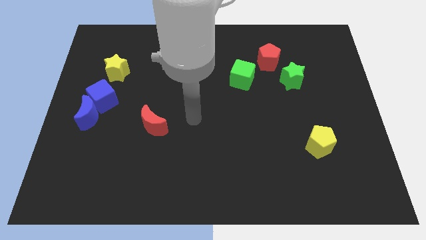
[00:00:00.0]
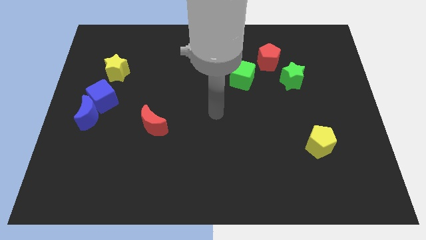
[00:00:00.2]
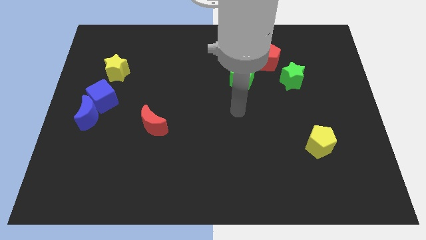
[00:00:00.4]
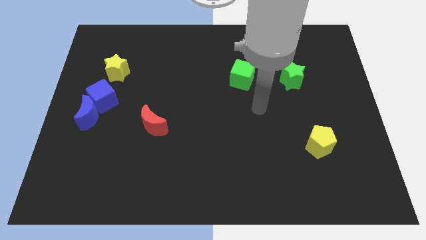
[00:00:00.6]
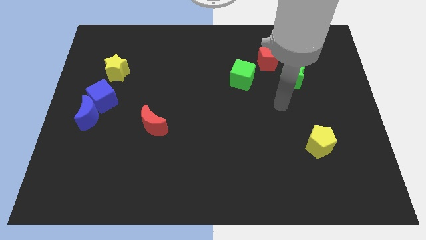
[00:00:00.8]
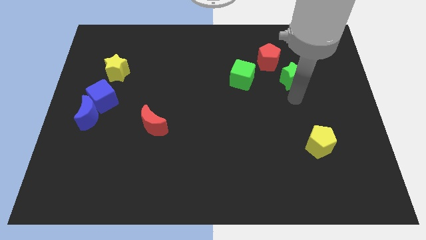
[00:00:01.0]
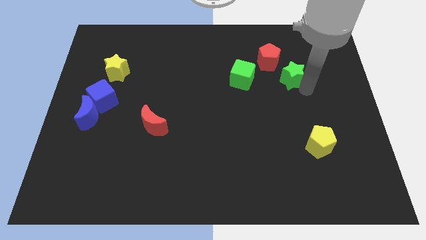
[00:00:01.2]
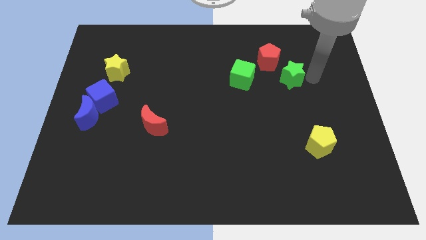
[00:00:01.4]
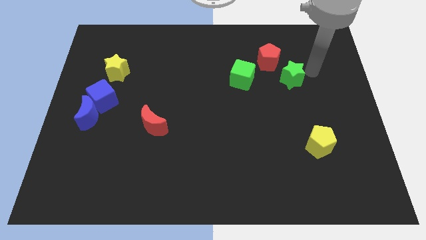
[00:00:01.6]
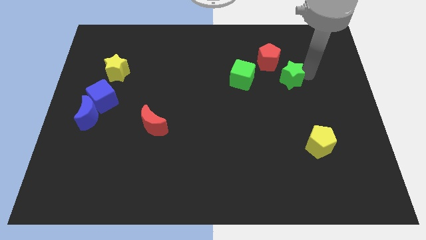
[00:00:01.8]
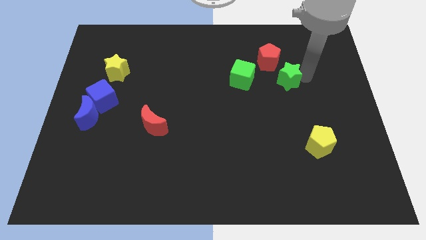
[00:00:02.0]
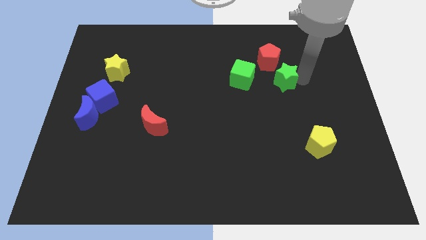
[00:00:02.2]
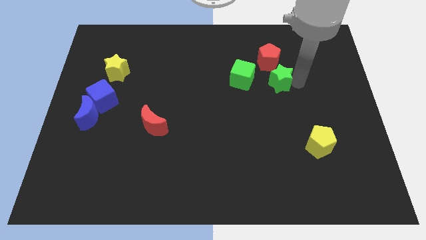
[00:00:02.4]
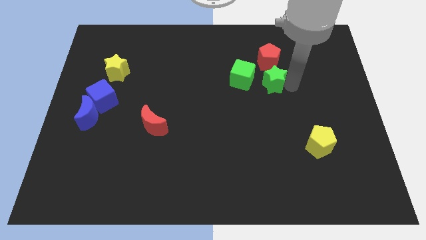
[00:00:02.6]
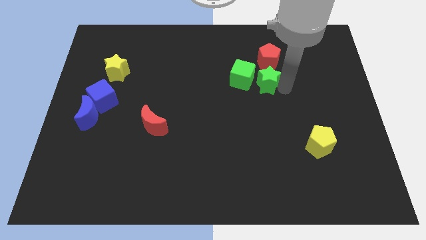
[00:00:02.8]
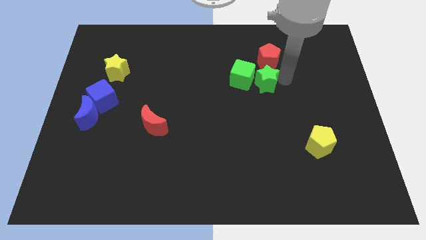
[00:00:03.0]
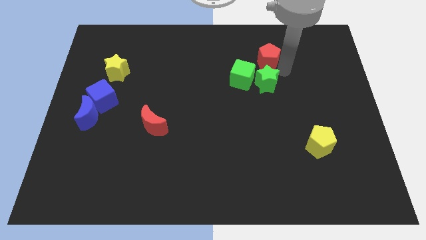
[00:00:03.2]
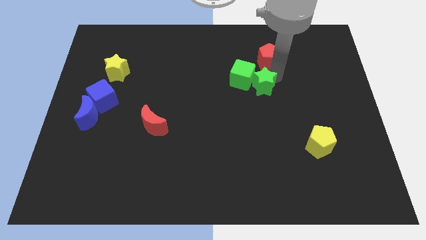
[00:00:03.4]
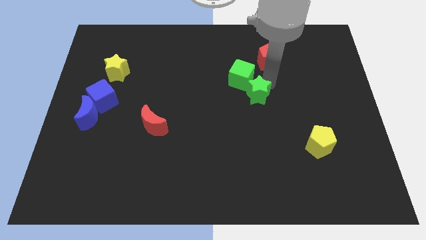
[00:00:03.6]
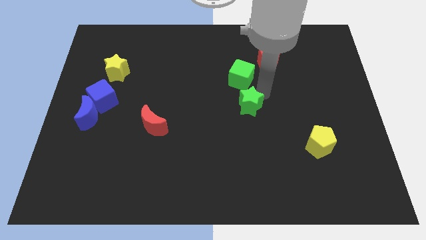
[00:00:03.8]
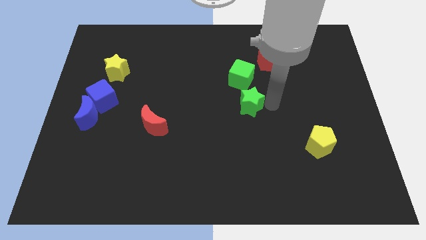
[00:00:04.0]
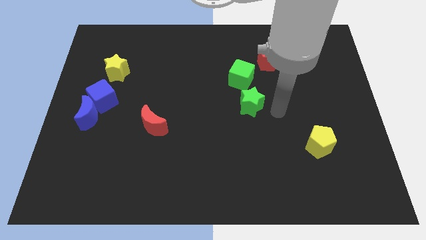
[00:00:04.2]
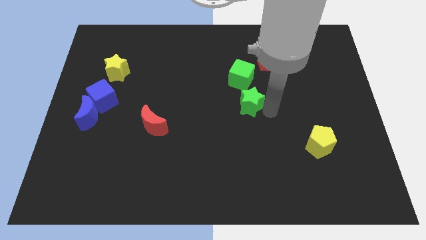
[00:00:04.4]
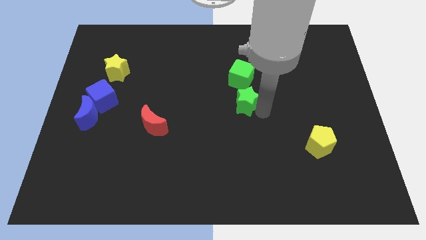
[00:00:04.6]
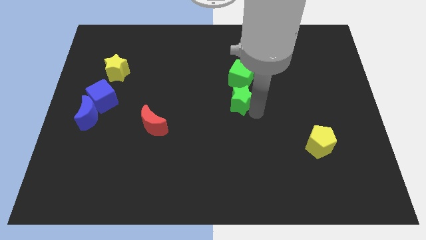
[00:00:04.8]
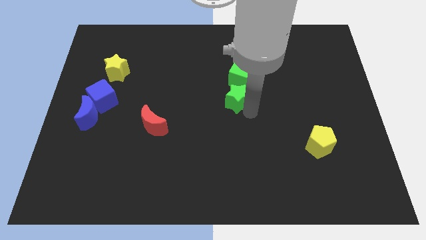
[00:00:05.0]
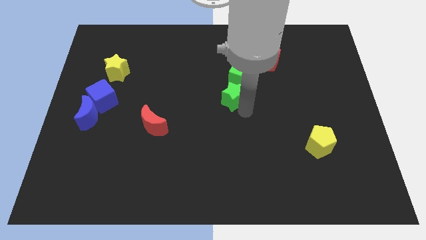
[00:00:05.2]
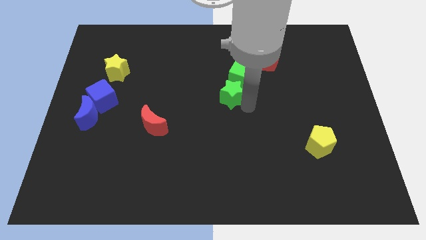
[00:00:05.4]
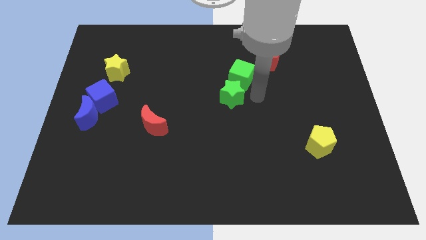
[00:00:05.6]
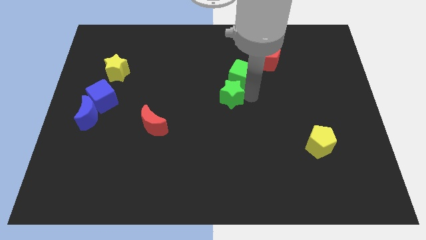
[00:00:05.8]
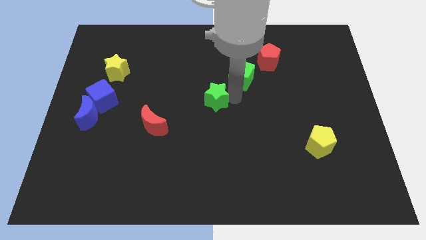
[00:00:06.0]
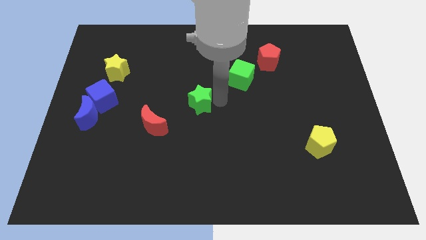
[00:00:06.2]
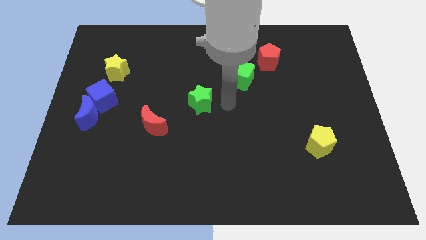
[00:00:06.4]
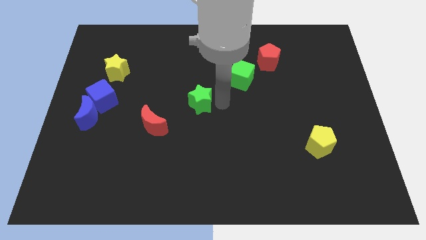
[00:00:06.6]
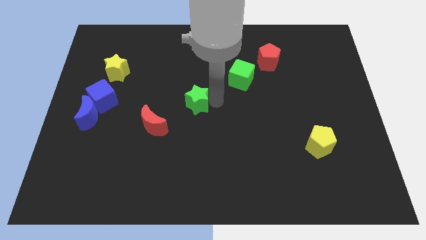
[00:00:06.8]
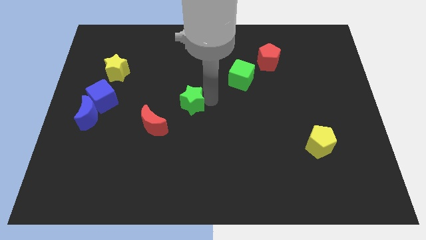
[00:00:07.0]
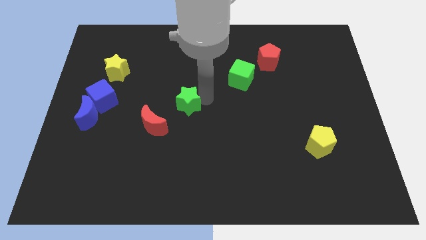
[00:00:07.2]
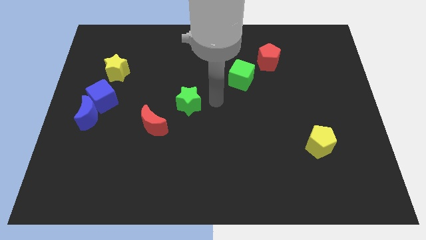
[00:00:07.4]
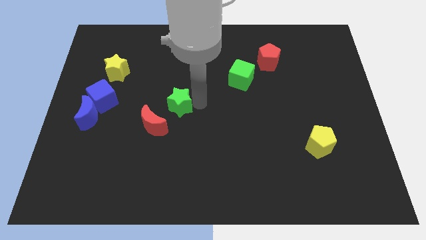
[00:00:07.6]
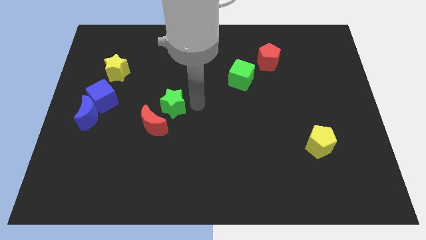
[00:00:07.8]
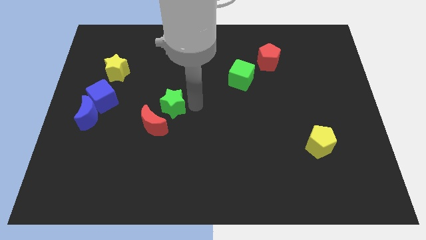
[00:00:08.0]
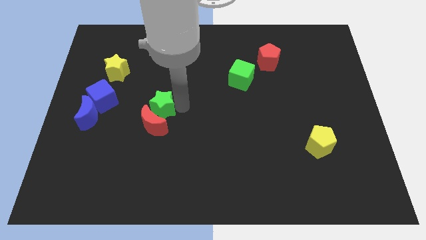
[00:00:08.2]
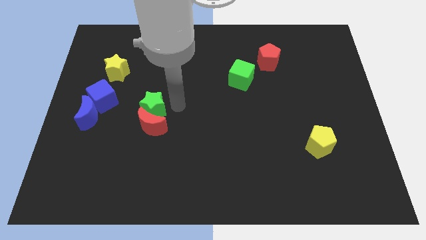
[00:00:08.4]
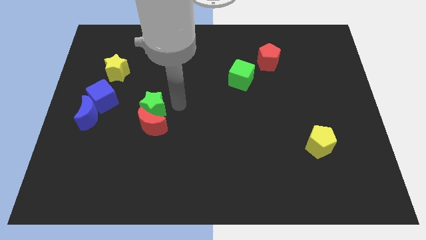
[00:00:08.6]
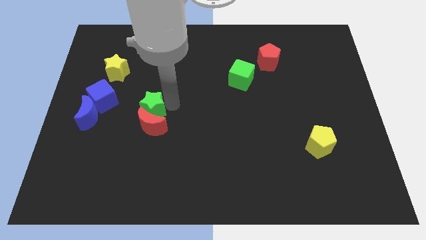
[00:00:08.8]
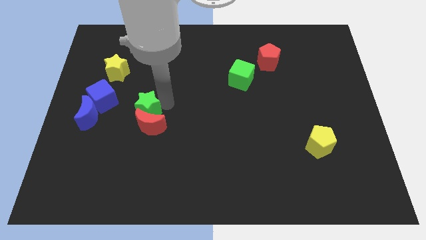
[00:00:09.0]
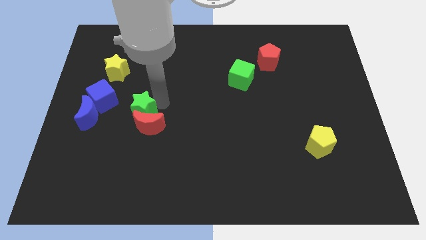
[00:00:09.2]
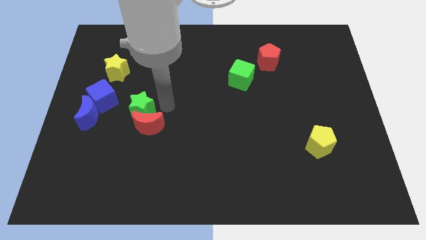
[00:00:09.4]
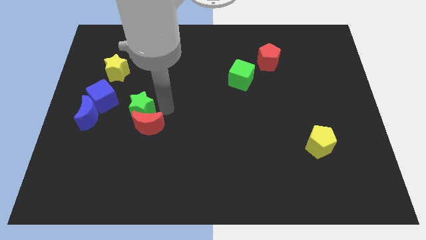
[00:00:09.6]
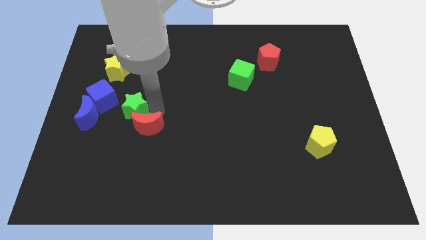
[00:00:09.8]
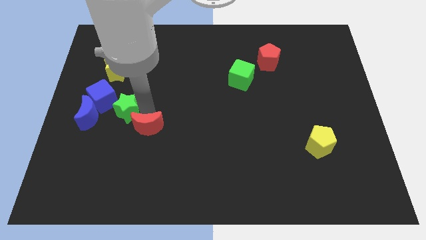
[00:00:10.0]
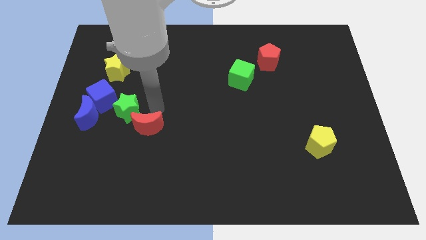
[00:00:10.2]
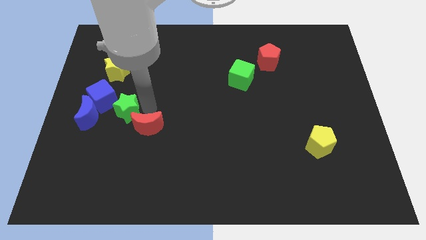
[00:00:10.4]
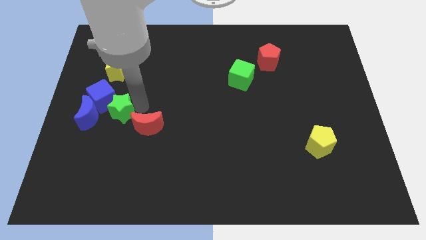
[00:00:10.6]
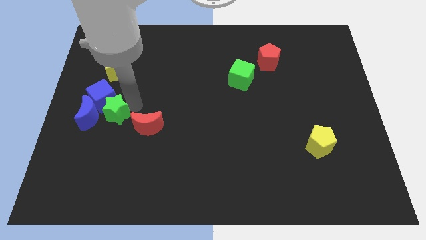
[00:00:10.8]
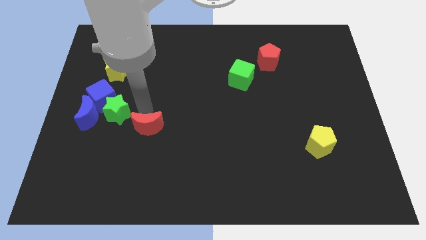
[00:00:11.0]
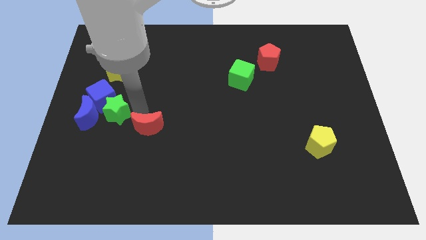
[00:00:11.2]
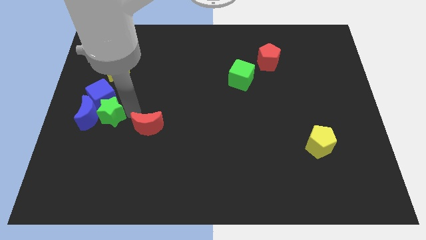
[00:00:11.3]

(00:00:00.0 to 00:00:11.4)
push the green star to the blue moon

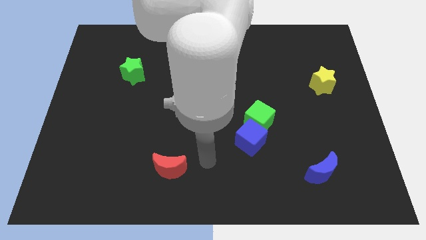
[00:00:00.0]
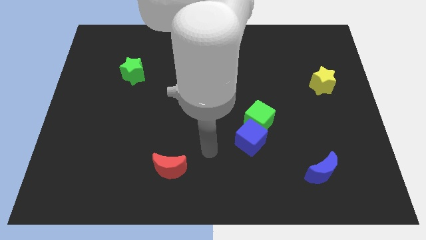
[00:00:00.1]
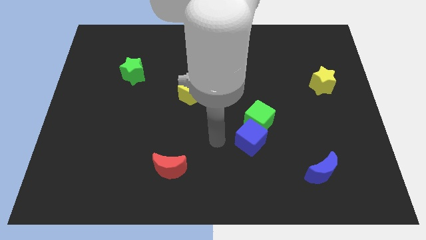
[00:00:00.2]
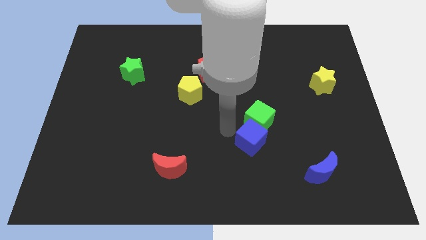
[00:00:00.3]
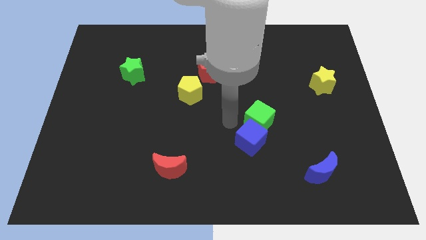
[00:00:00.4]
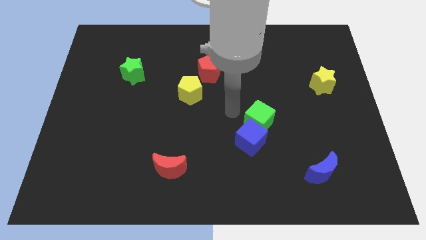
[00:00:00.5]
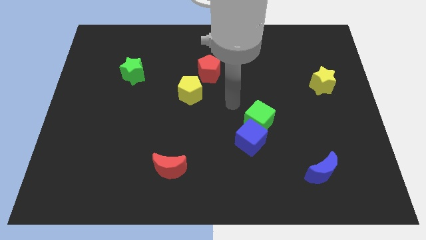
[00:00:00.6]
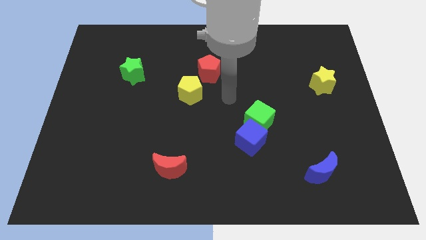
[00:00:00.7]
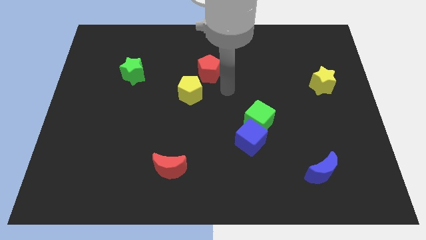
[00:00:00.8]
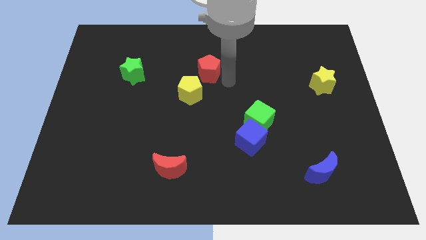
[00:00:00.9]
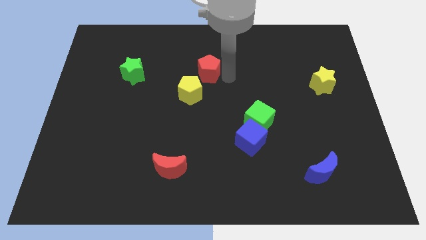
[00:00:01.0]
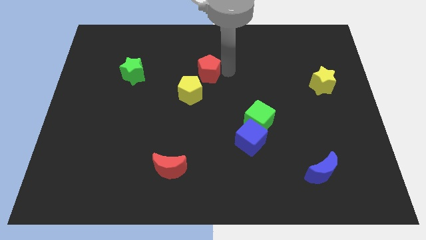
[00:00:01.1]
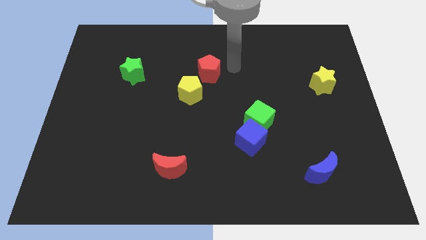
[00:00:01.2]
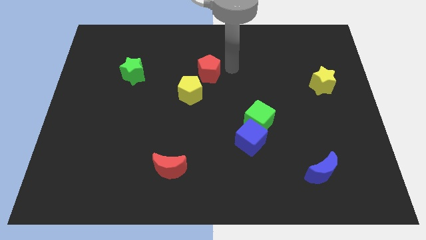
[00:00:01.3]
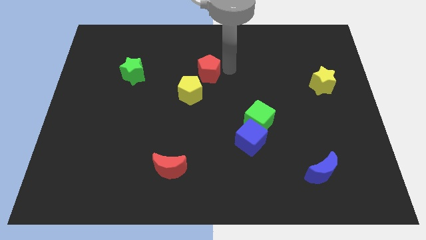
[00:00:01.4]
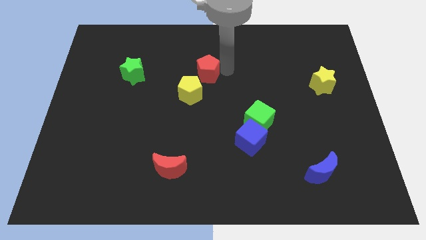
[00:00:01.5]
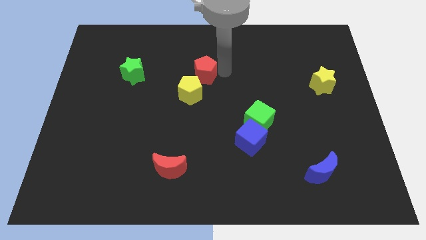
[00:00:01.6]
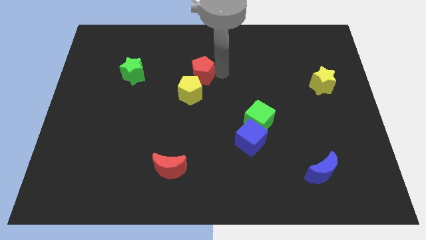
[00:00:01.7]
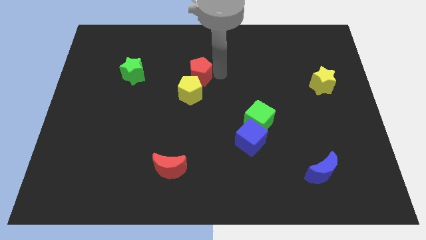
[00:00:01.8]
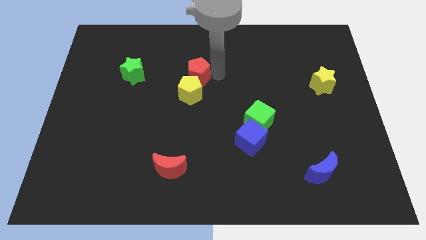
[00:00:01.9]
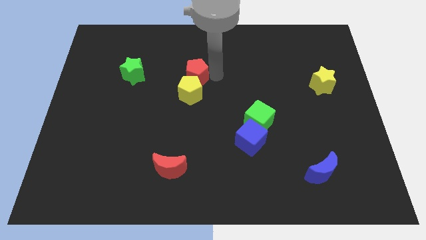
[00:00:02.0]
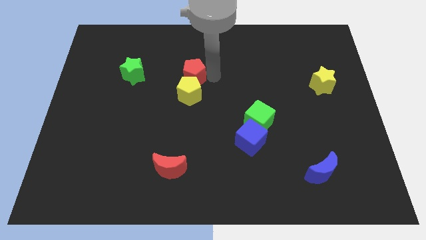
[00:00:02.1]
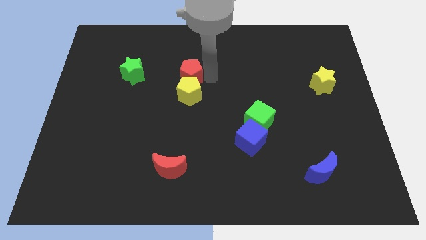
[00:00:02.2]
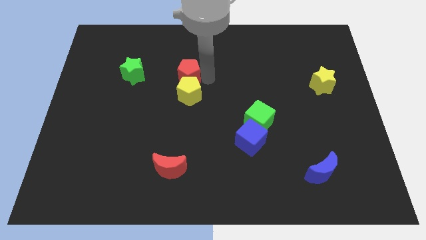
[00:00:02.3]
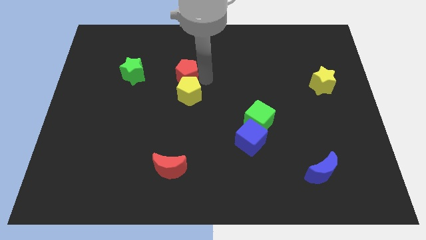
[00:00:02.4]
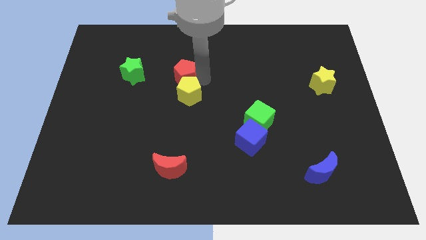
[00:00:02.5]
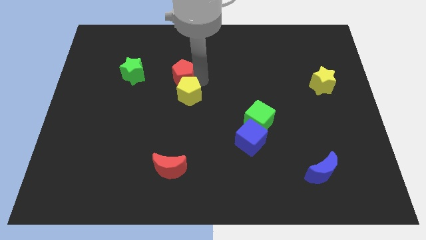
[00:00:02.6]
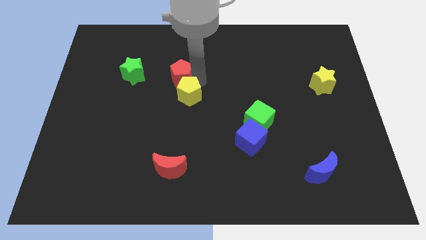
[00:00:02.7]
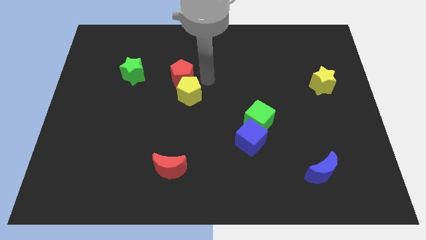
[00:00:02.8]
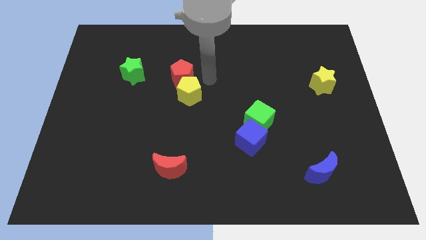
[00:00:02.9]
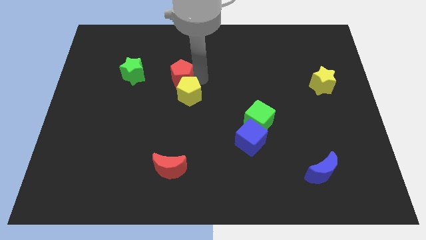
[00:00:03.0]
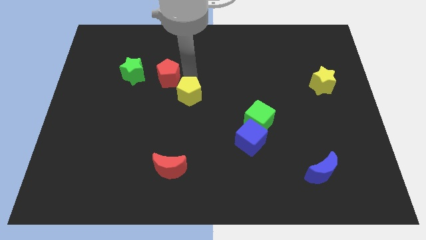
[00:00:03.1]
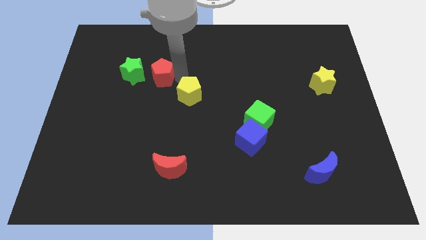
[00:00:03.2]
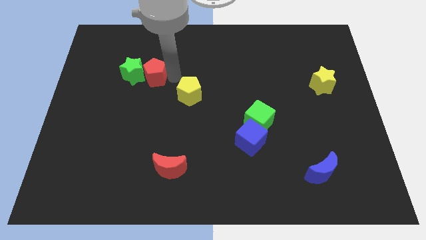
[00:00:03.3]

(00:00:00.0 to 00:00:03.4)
slide the red pentagon to the green star
